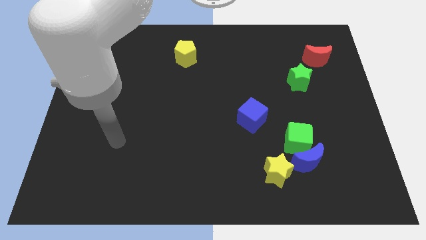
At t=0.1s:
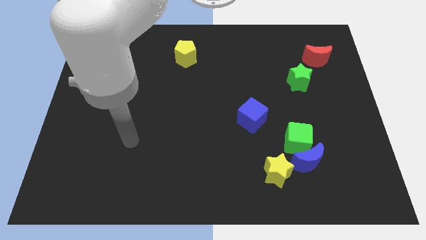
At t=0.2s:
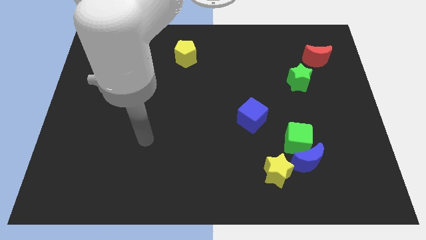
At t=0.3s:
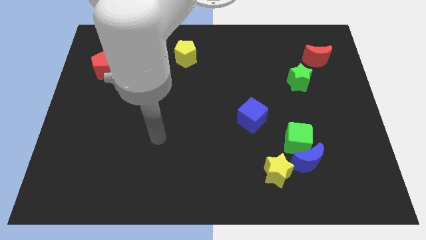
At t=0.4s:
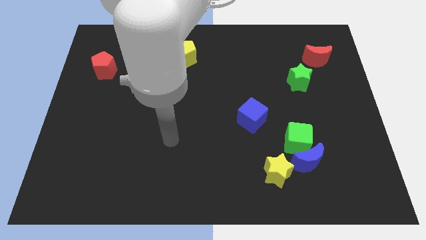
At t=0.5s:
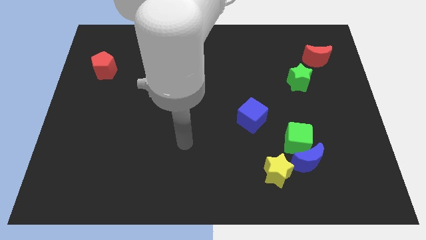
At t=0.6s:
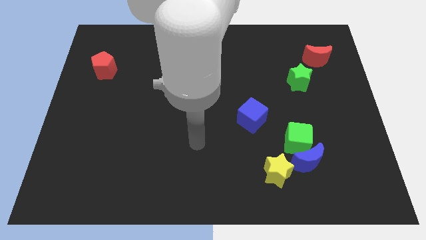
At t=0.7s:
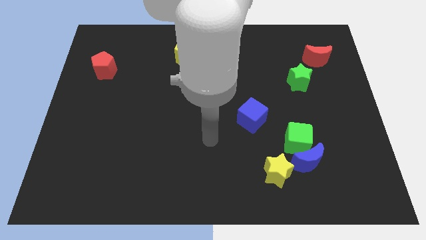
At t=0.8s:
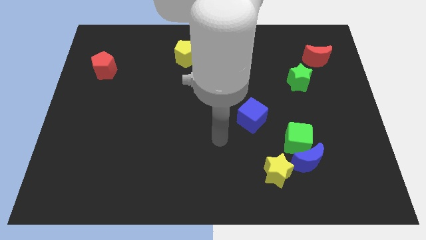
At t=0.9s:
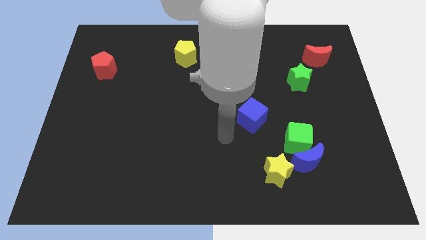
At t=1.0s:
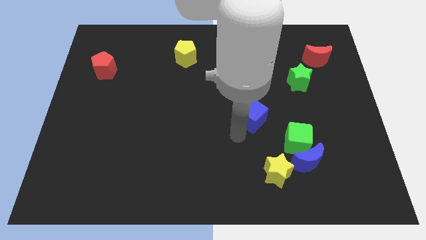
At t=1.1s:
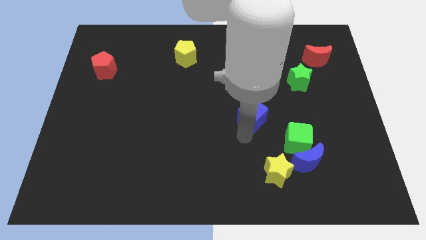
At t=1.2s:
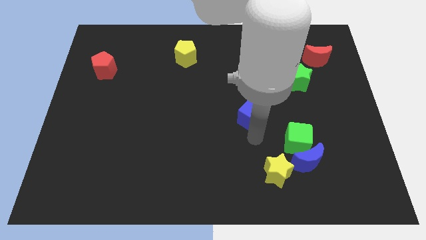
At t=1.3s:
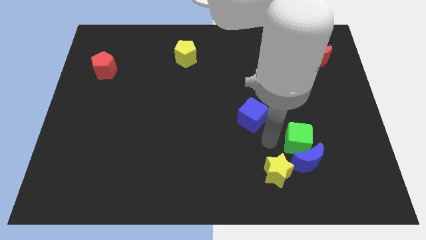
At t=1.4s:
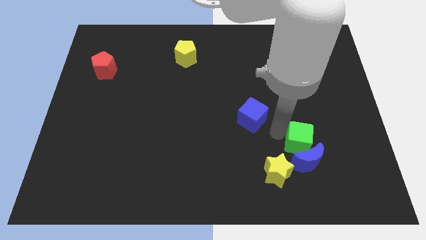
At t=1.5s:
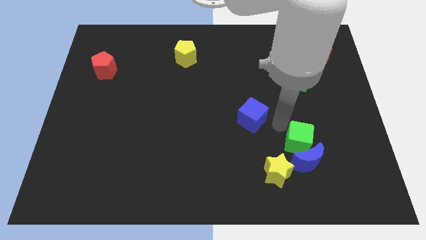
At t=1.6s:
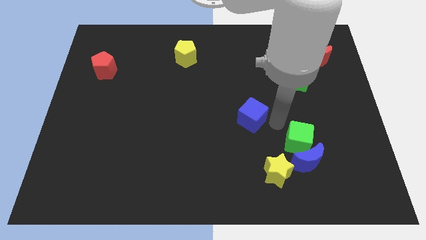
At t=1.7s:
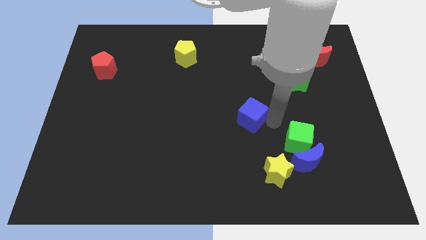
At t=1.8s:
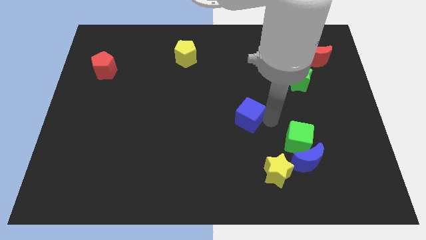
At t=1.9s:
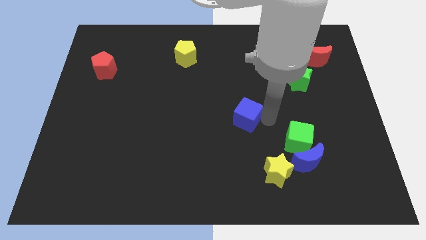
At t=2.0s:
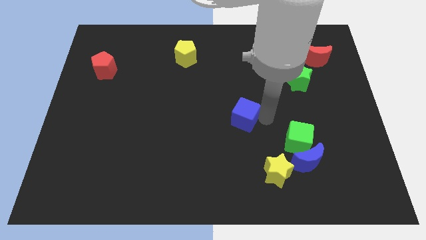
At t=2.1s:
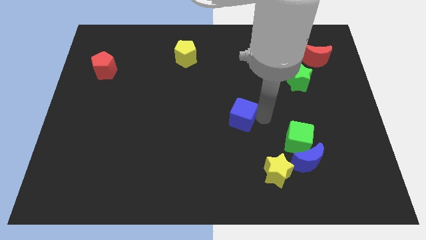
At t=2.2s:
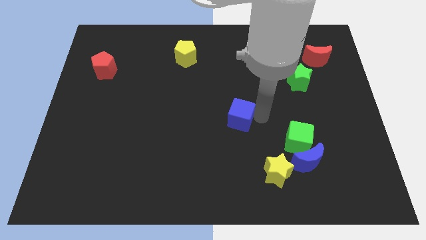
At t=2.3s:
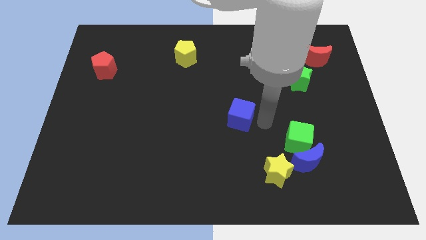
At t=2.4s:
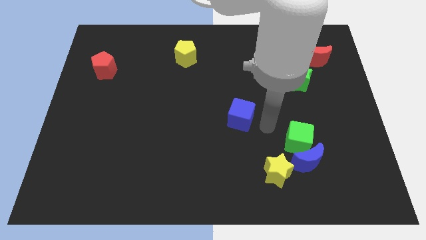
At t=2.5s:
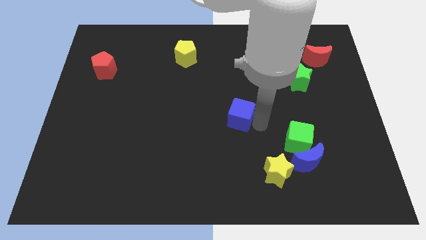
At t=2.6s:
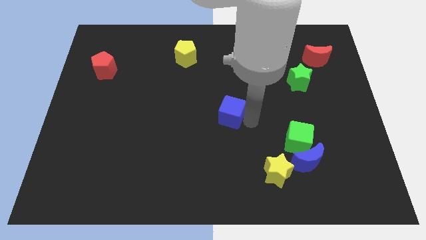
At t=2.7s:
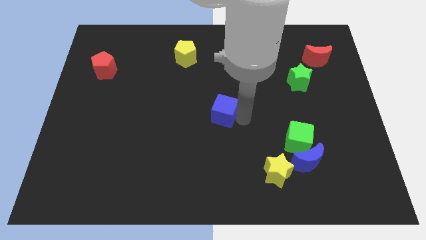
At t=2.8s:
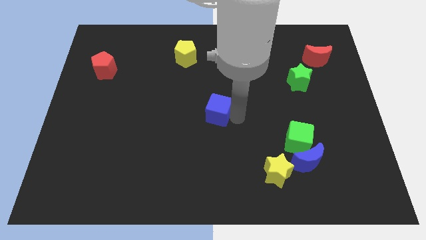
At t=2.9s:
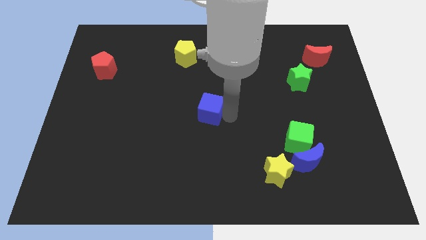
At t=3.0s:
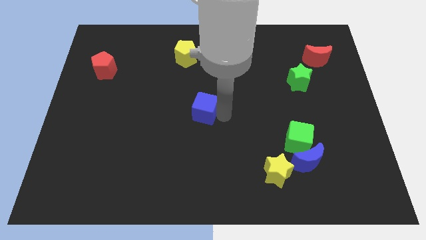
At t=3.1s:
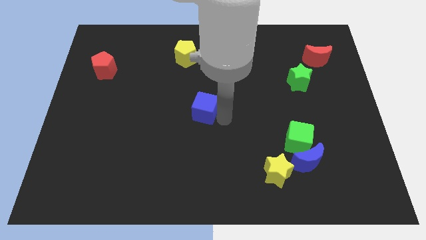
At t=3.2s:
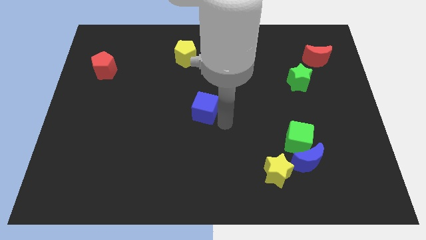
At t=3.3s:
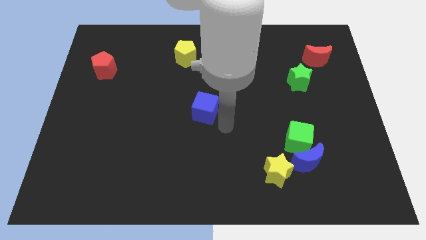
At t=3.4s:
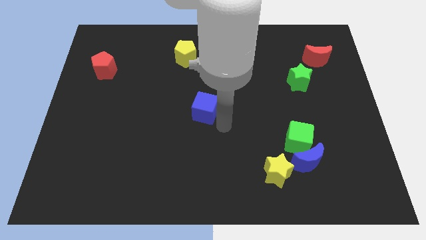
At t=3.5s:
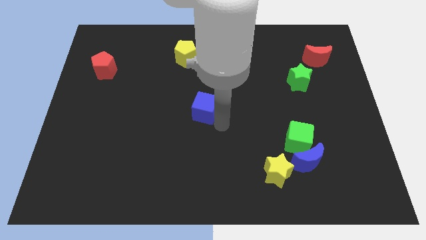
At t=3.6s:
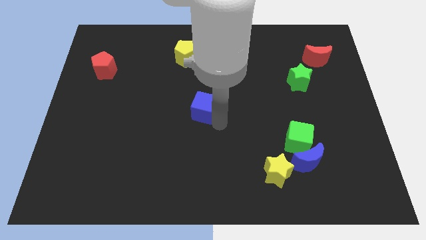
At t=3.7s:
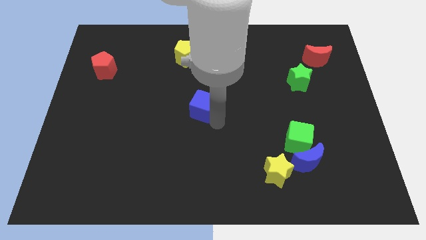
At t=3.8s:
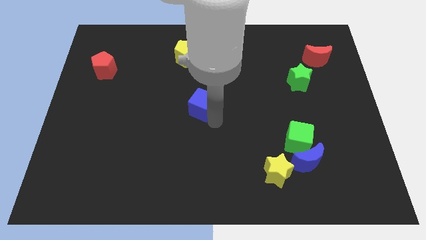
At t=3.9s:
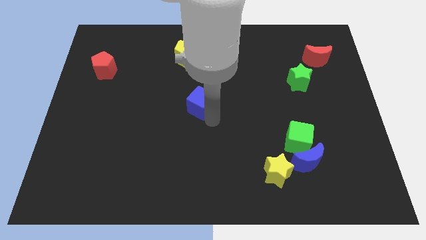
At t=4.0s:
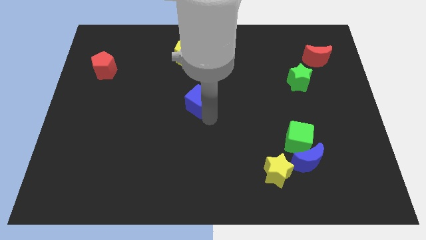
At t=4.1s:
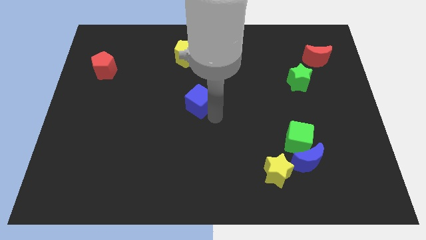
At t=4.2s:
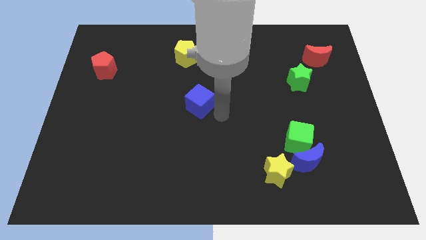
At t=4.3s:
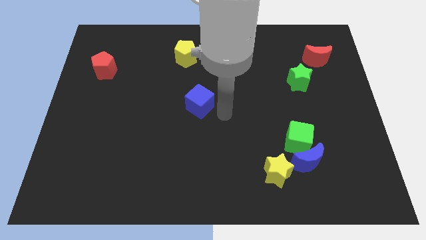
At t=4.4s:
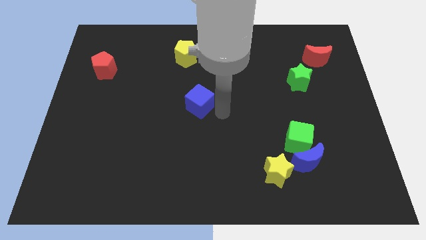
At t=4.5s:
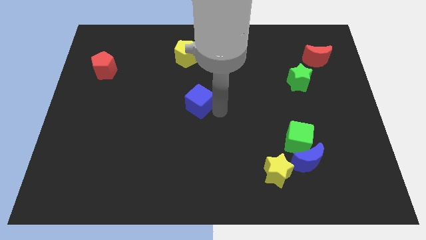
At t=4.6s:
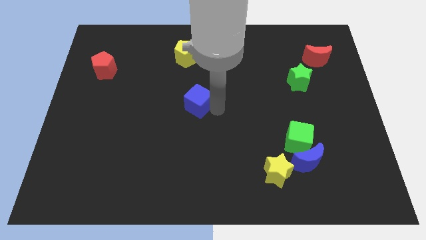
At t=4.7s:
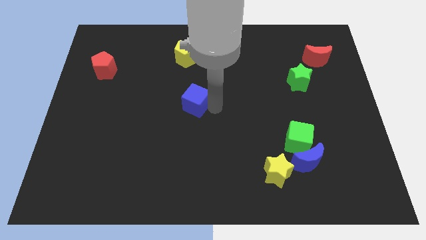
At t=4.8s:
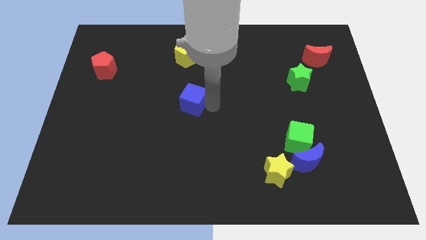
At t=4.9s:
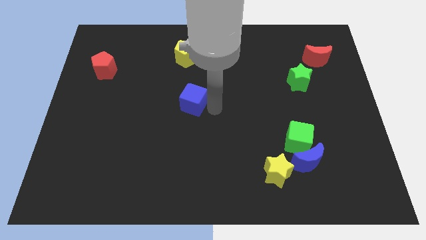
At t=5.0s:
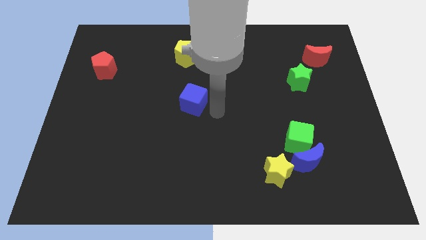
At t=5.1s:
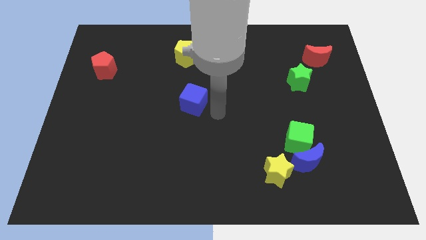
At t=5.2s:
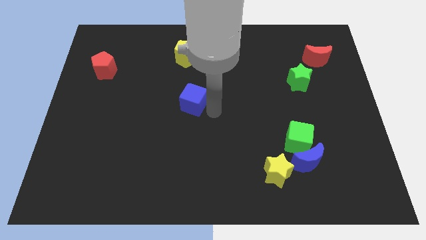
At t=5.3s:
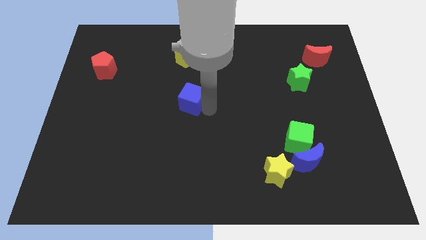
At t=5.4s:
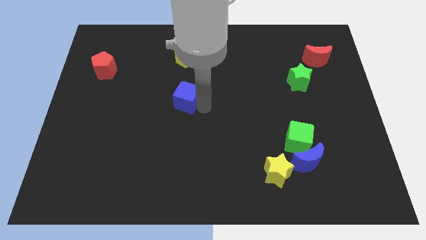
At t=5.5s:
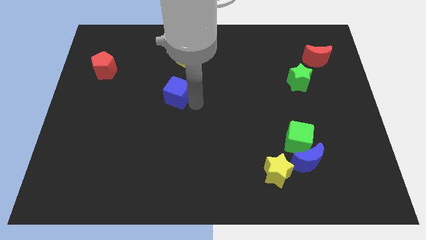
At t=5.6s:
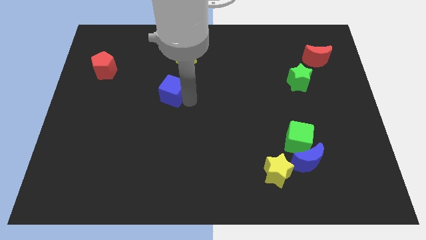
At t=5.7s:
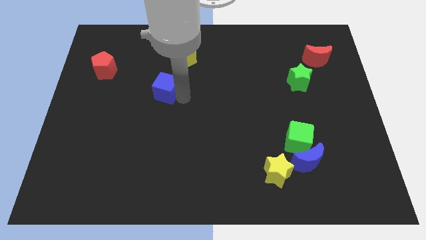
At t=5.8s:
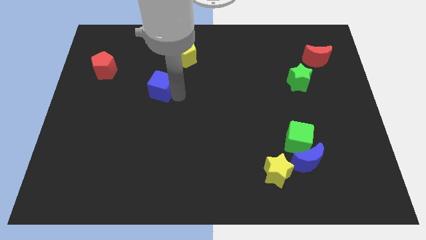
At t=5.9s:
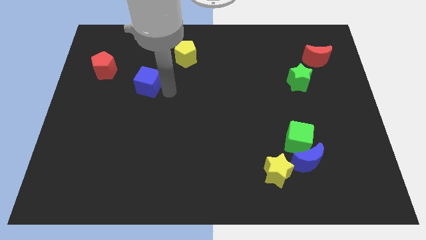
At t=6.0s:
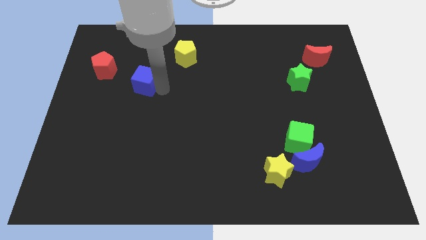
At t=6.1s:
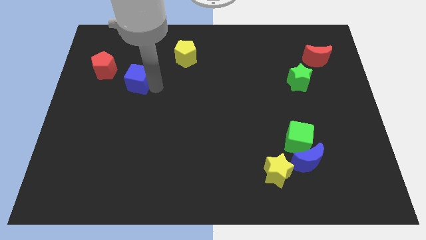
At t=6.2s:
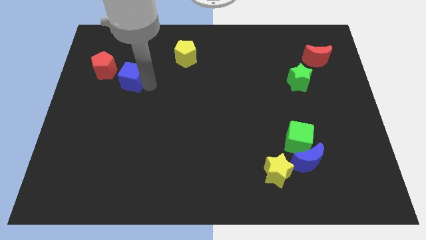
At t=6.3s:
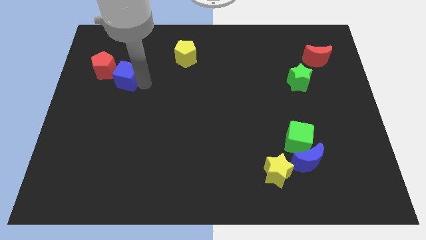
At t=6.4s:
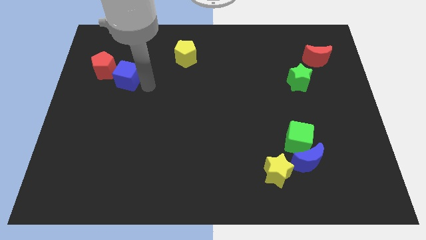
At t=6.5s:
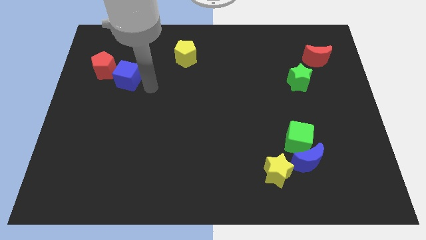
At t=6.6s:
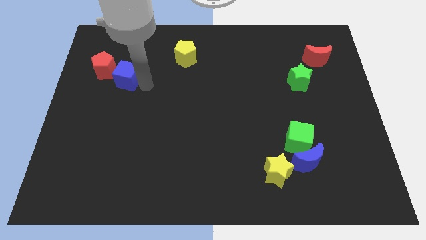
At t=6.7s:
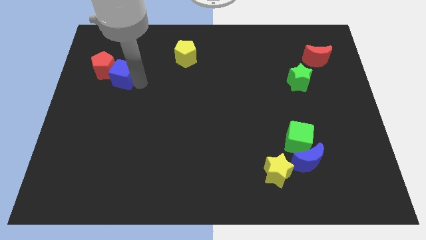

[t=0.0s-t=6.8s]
slide the blue cube close to the red pentagon
